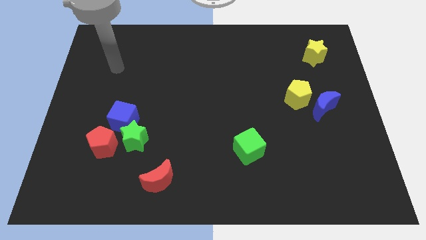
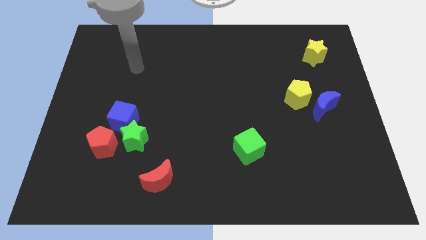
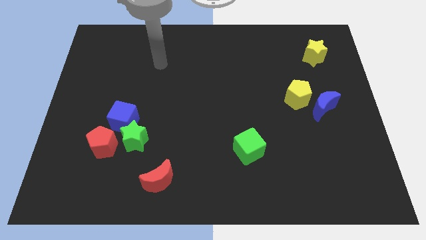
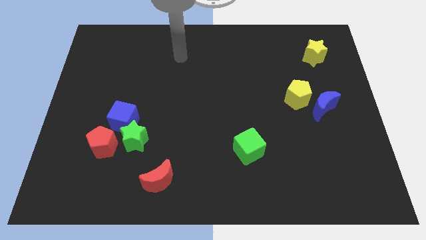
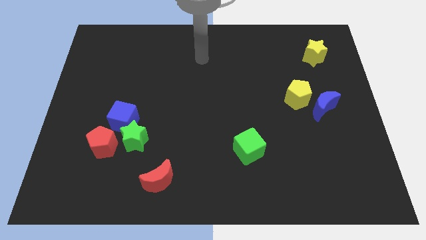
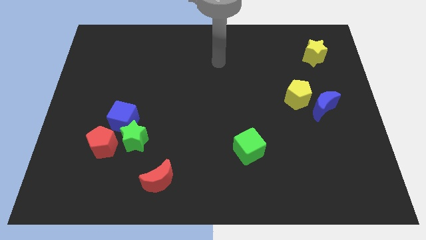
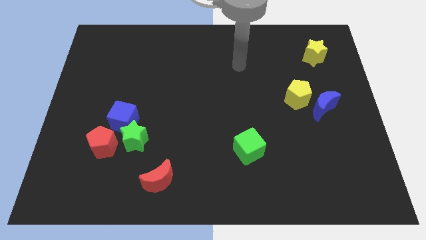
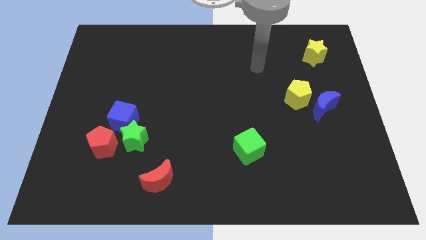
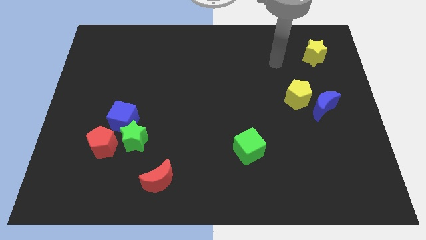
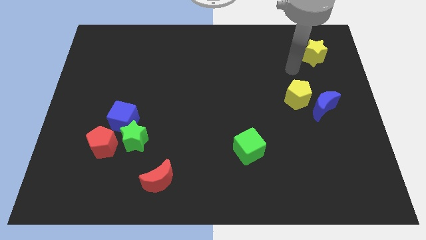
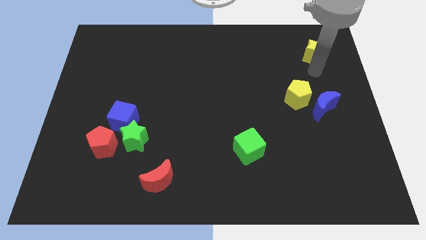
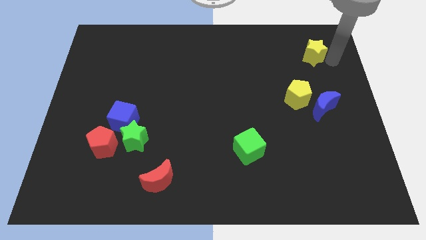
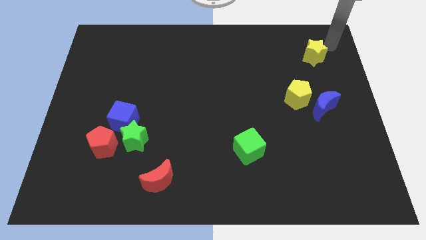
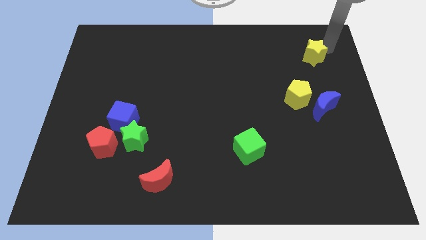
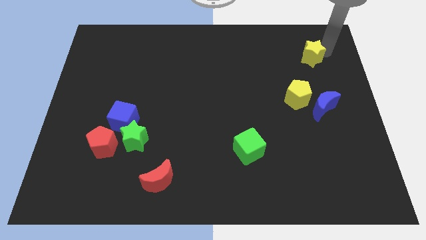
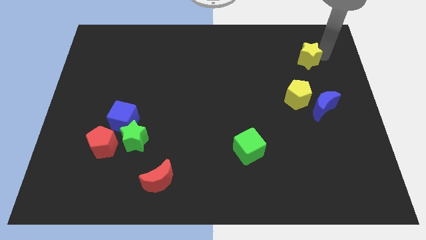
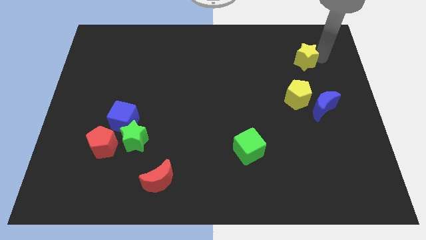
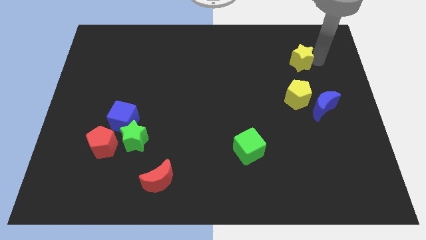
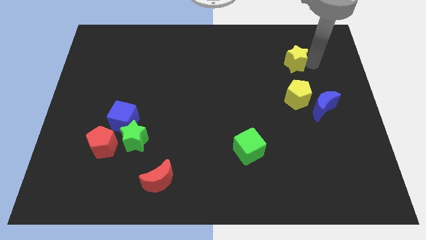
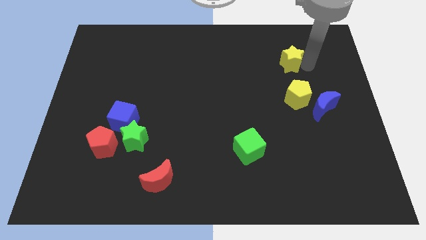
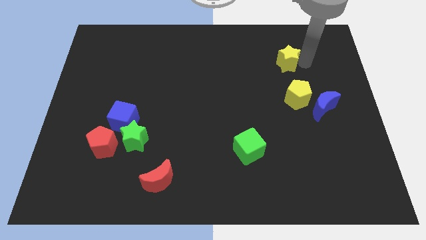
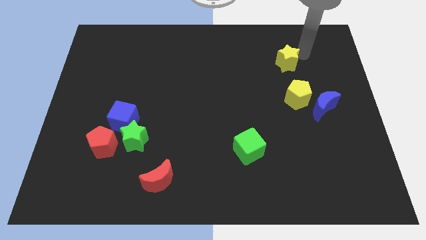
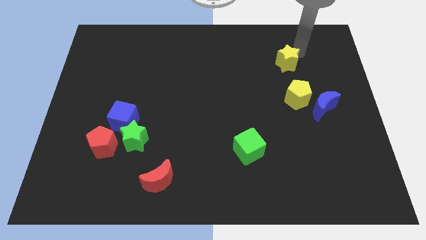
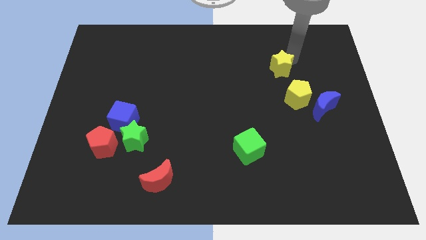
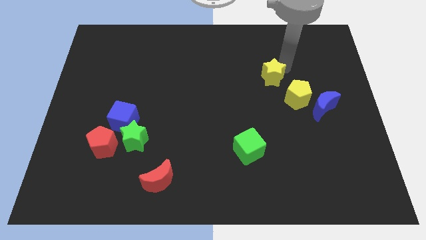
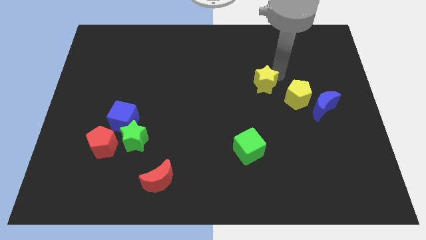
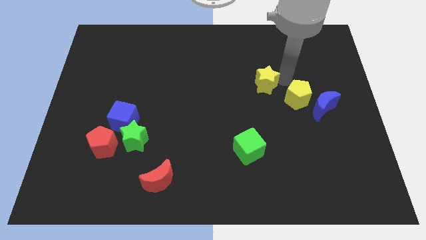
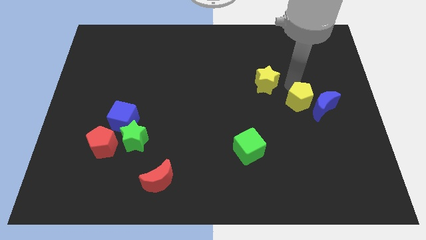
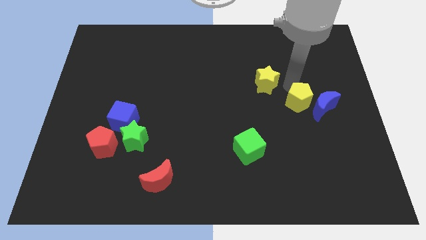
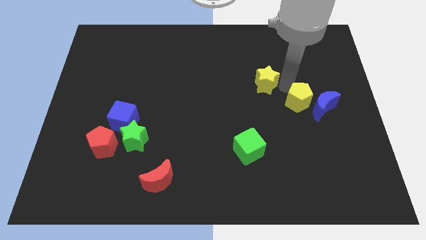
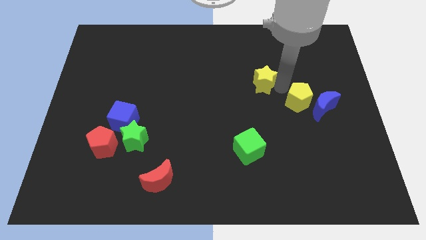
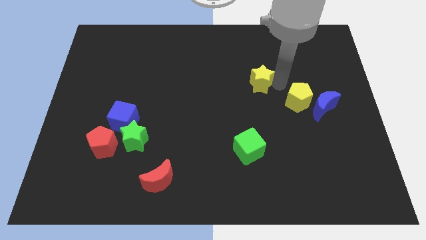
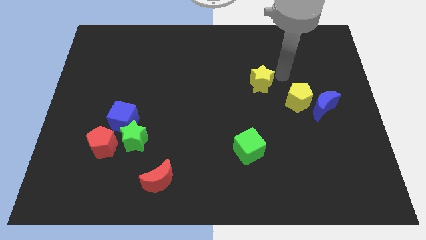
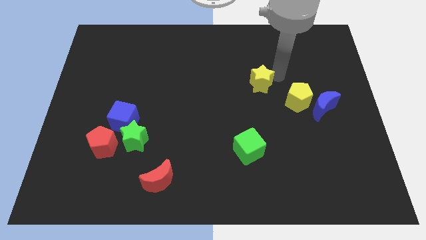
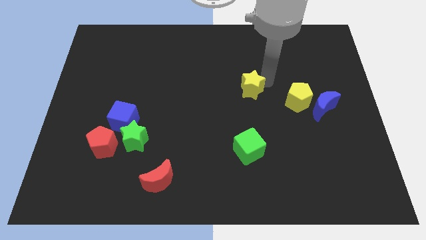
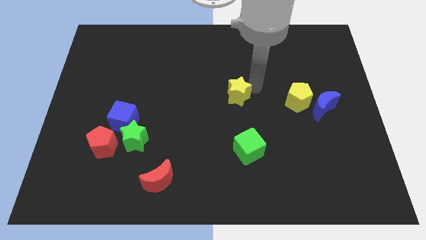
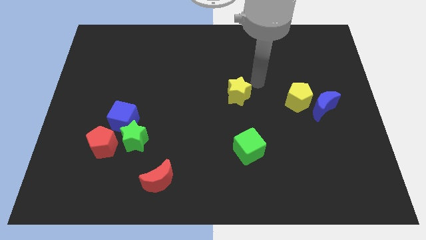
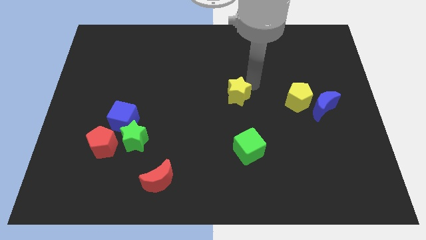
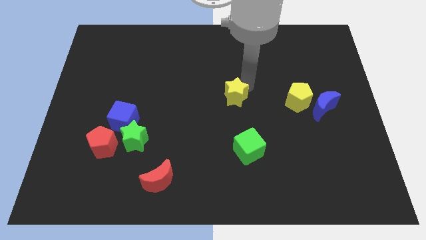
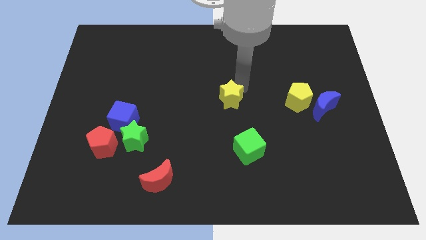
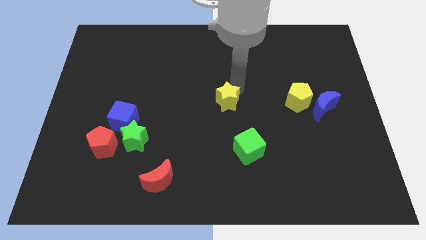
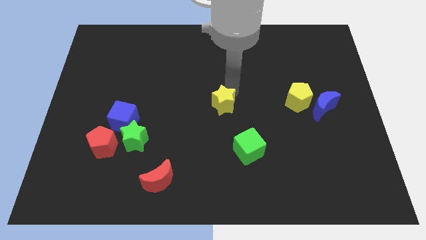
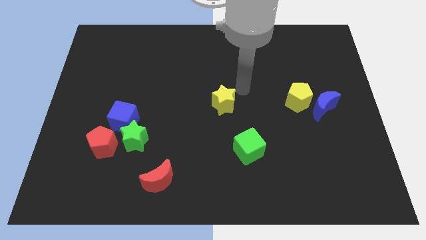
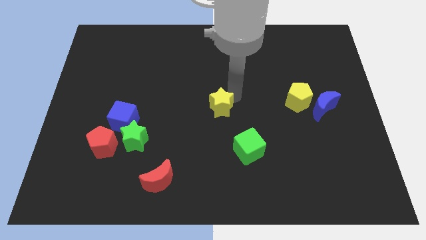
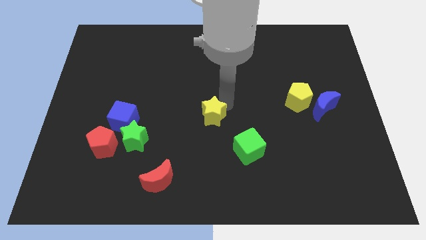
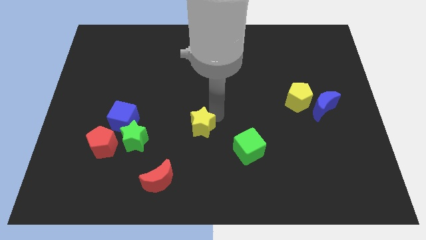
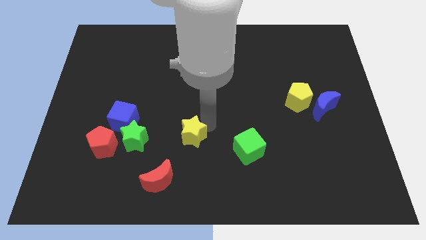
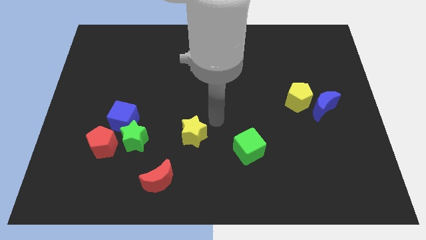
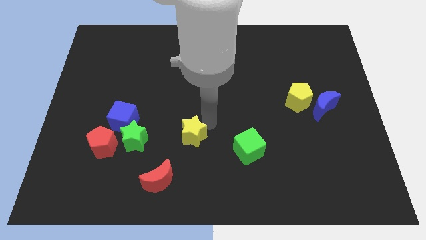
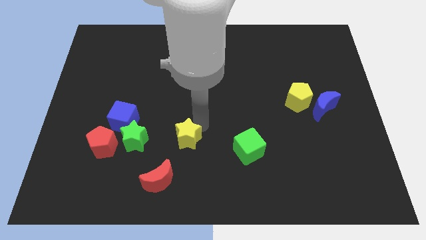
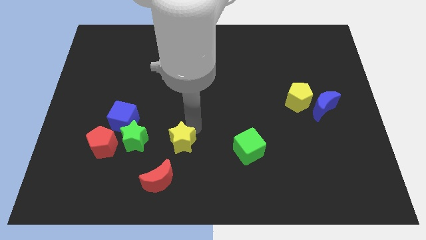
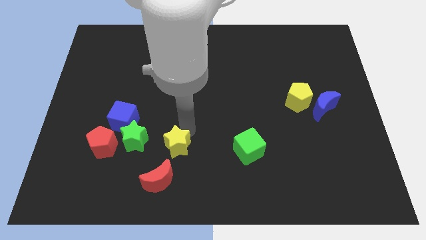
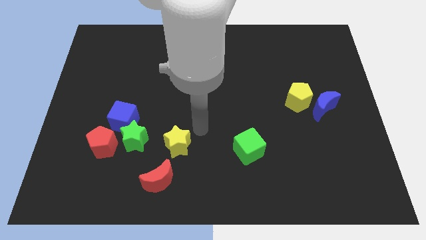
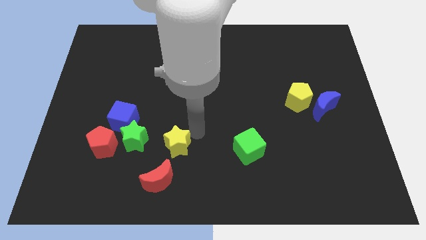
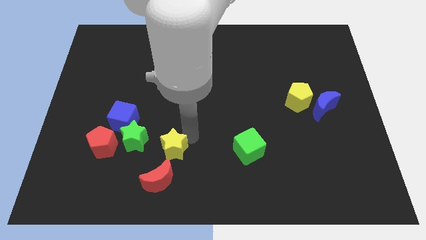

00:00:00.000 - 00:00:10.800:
move the yellow star to the bottom right of the green star

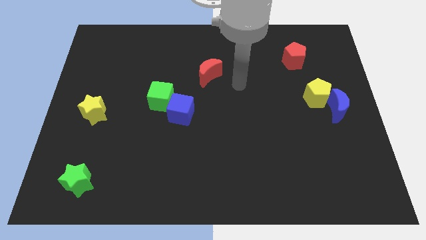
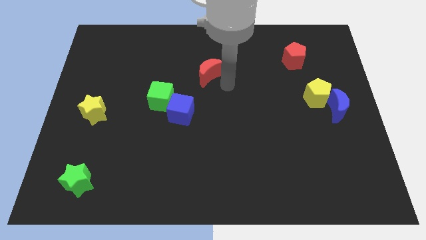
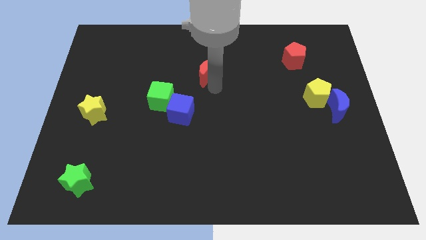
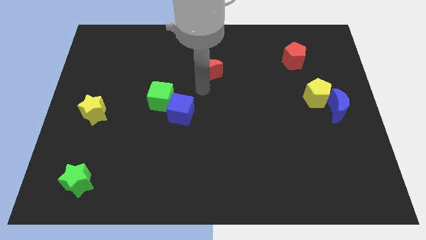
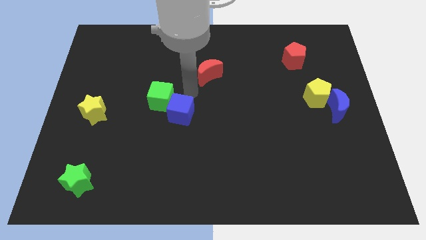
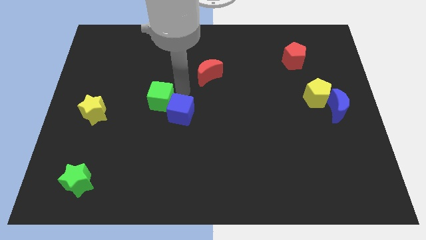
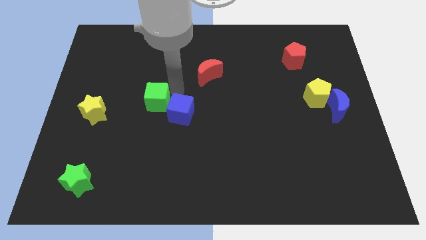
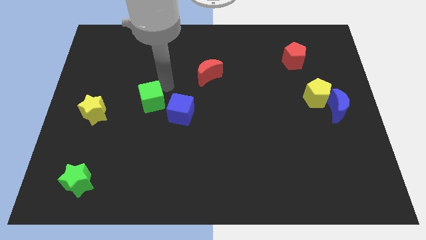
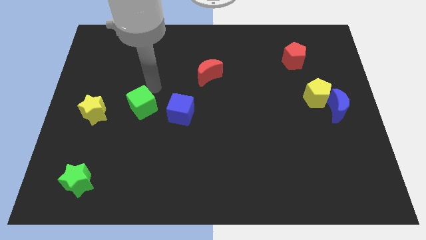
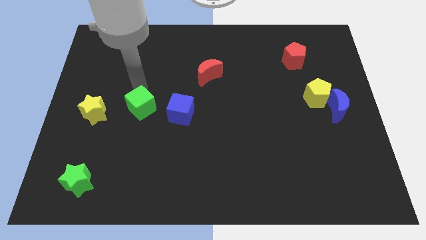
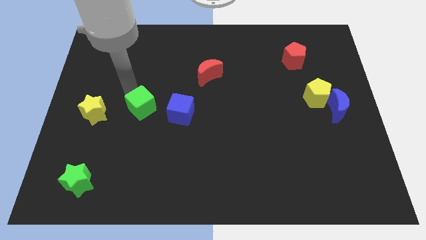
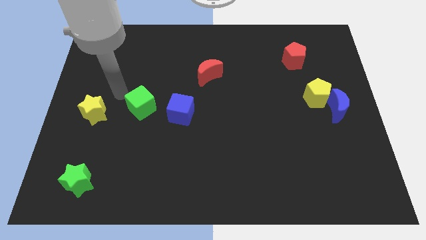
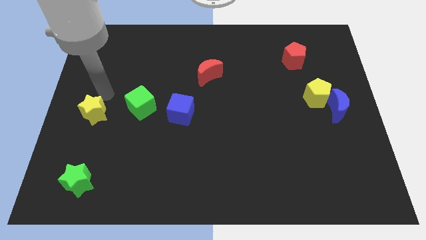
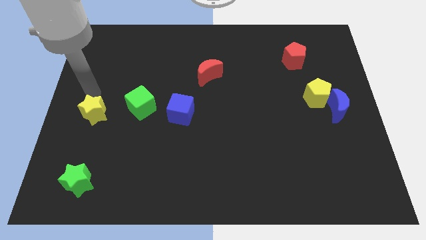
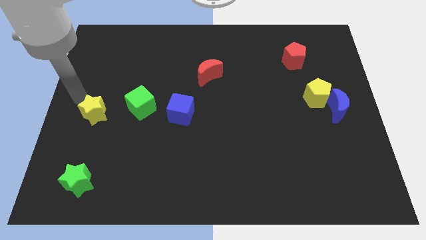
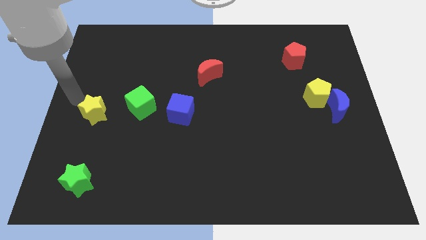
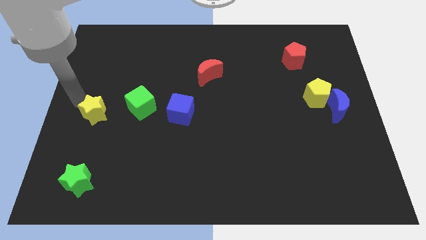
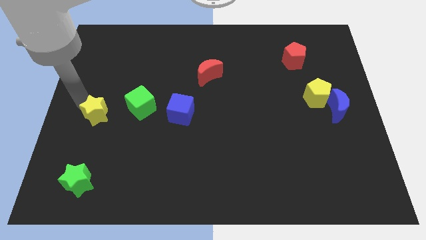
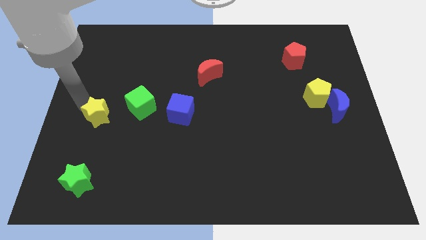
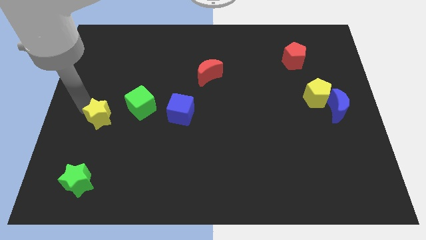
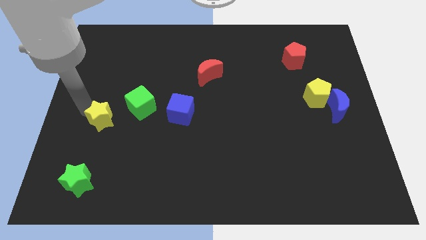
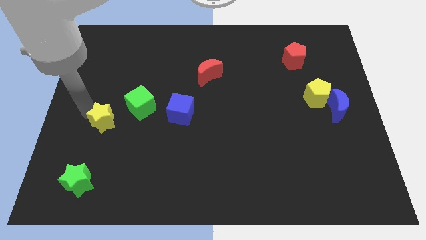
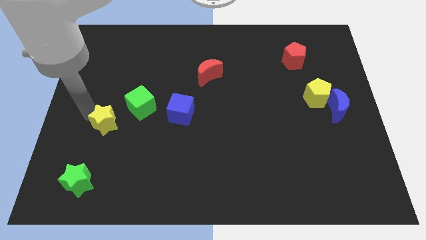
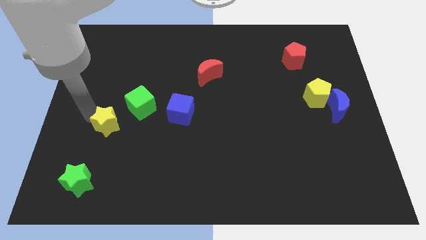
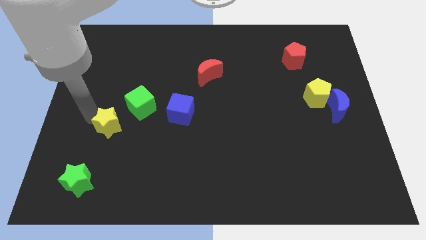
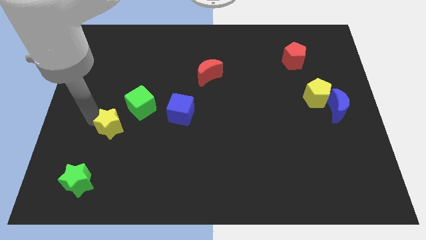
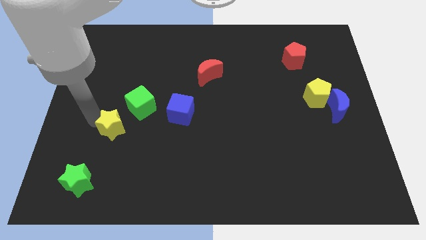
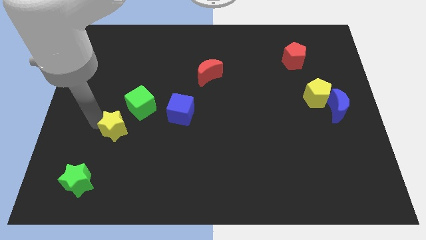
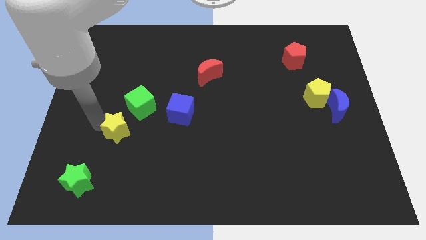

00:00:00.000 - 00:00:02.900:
move the yellow star to the bottom of the green cube
